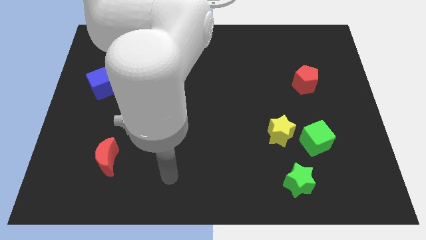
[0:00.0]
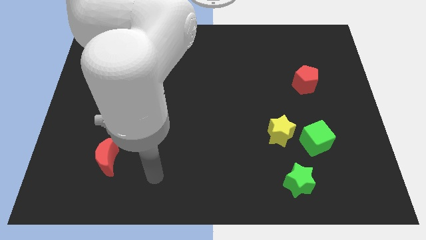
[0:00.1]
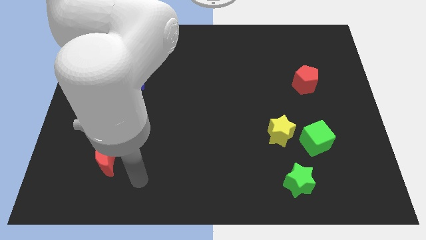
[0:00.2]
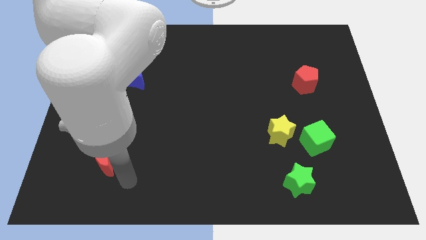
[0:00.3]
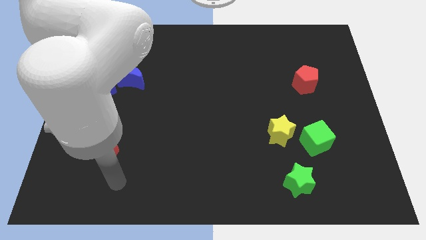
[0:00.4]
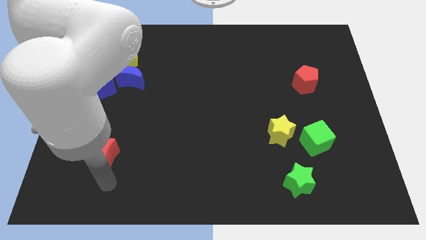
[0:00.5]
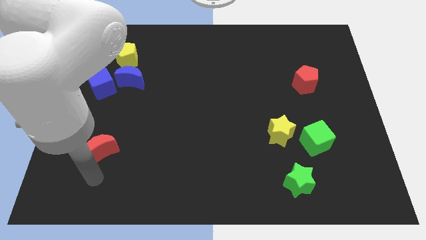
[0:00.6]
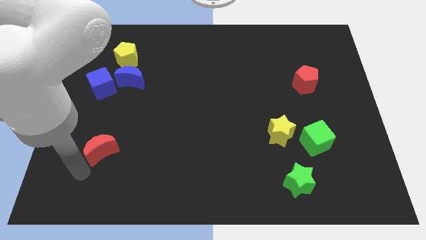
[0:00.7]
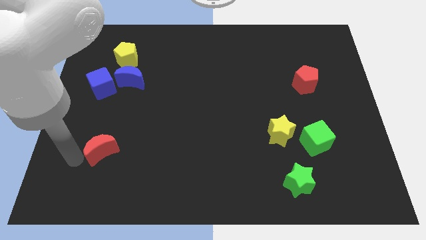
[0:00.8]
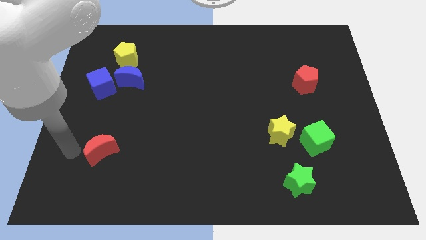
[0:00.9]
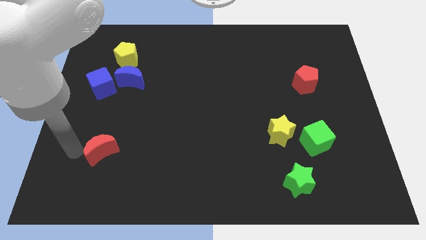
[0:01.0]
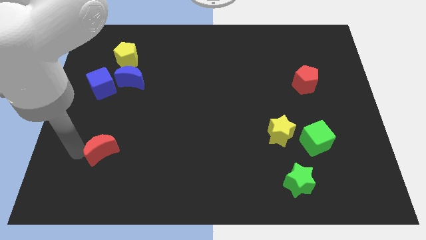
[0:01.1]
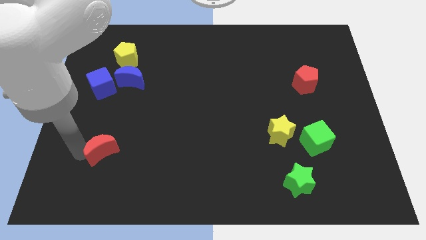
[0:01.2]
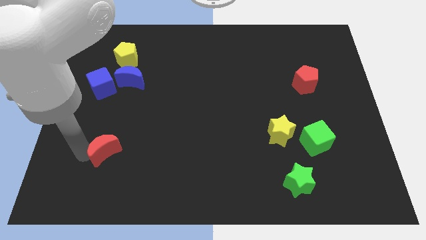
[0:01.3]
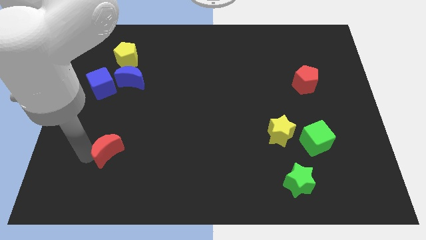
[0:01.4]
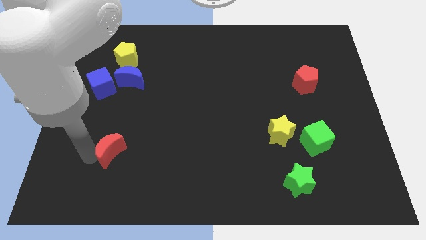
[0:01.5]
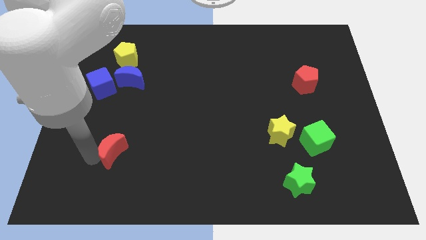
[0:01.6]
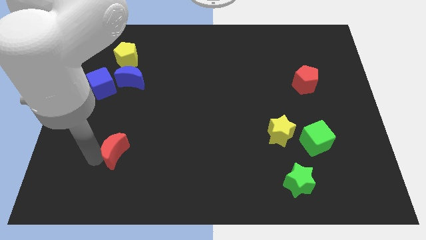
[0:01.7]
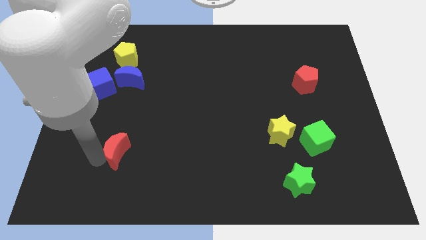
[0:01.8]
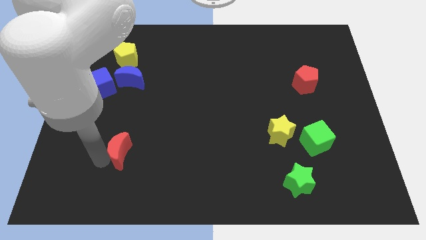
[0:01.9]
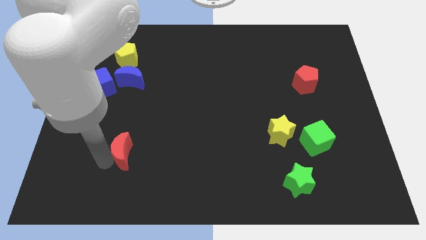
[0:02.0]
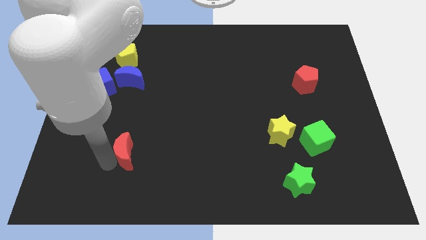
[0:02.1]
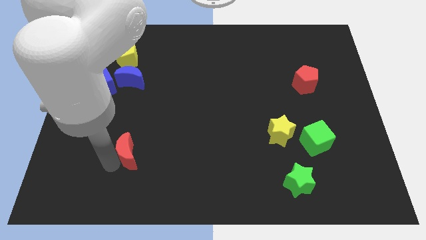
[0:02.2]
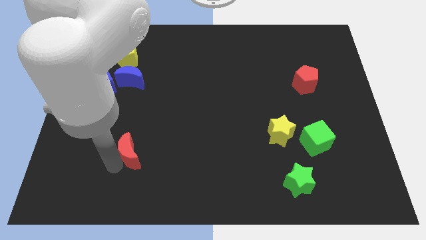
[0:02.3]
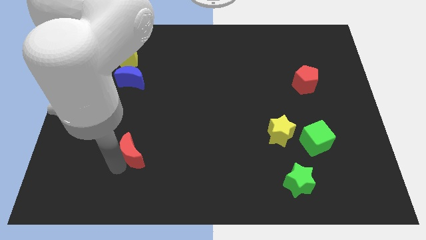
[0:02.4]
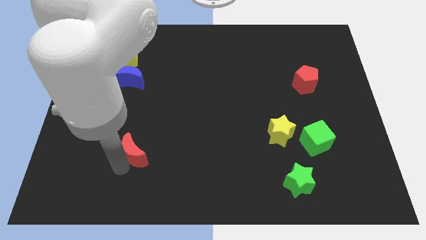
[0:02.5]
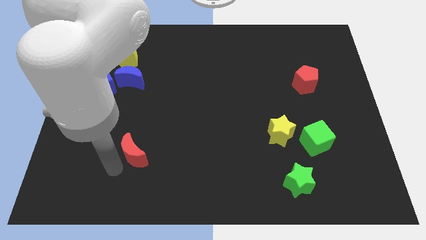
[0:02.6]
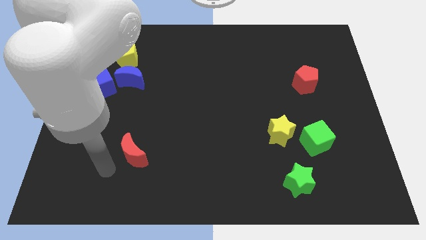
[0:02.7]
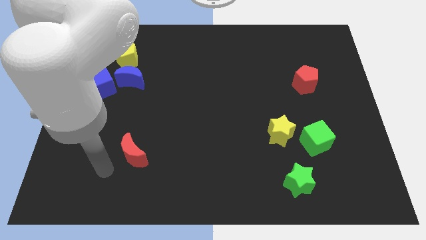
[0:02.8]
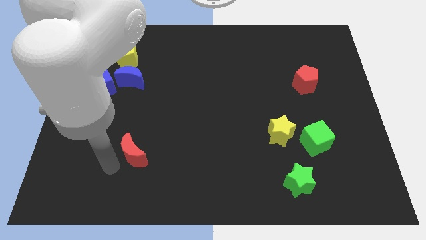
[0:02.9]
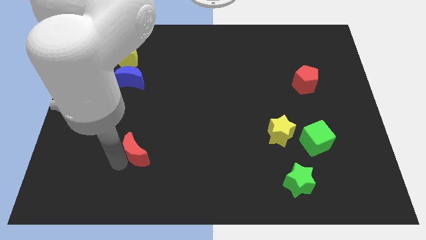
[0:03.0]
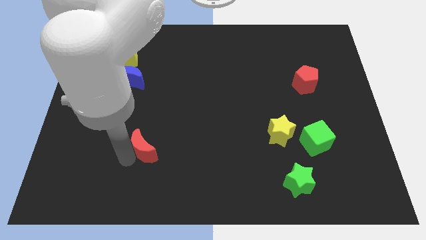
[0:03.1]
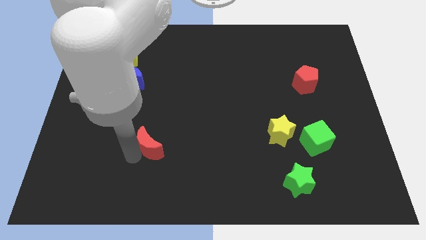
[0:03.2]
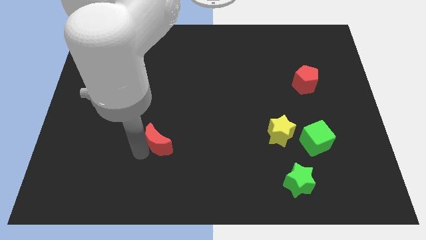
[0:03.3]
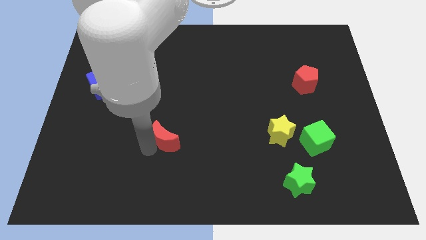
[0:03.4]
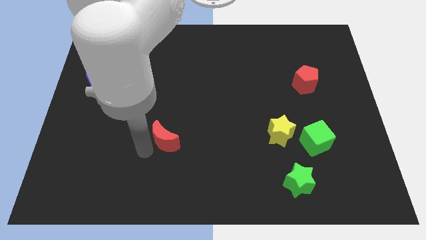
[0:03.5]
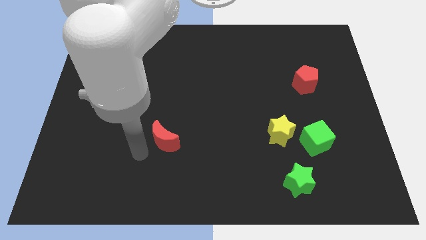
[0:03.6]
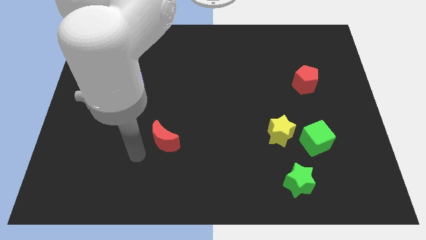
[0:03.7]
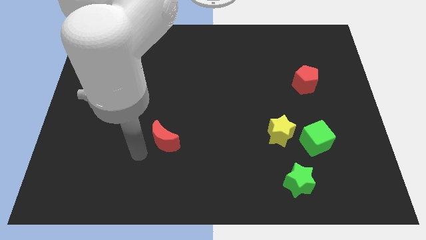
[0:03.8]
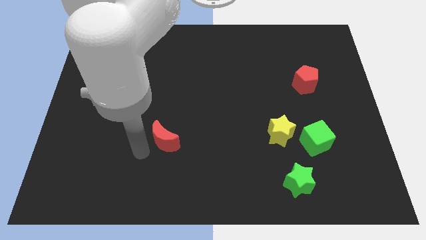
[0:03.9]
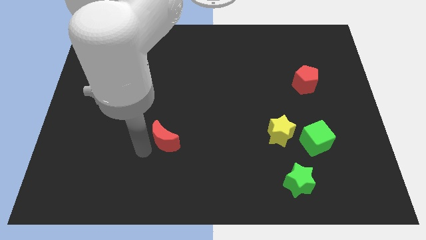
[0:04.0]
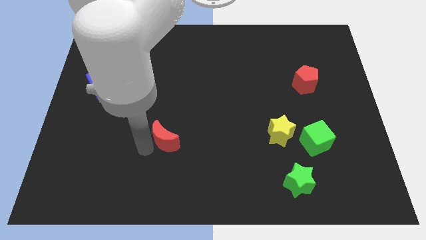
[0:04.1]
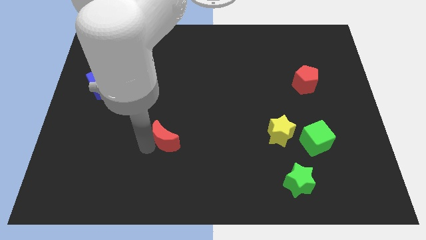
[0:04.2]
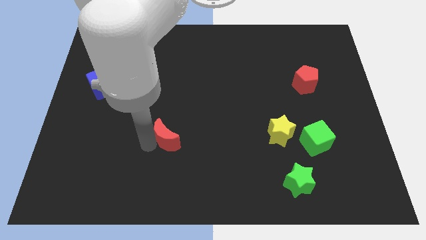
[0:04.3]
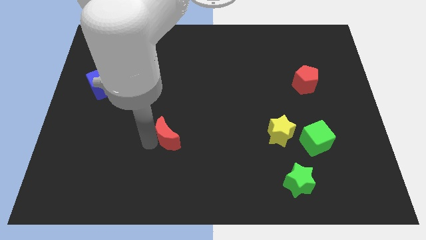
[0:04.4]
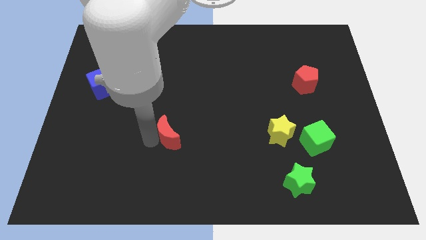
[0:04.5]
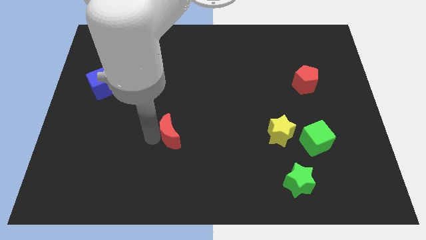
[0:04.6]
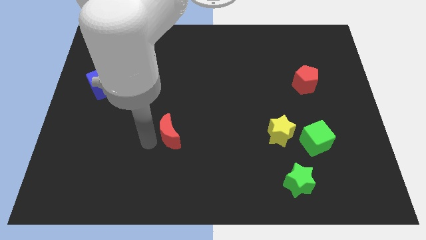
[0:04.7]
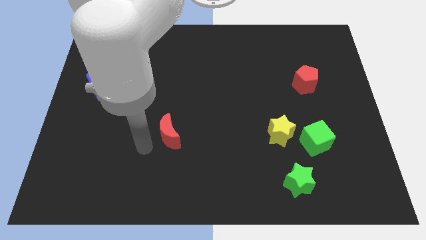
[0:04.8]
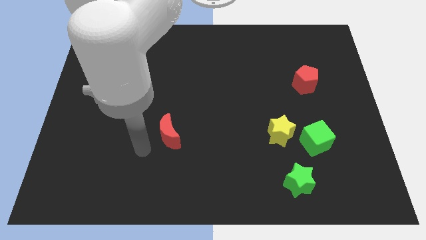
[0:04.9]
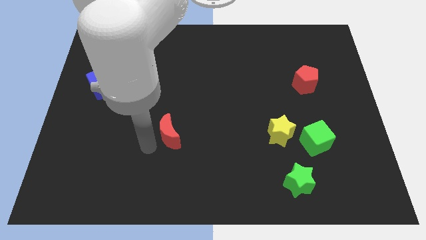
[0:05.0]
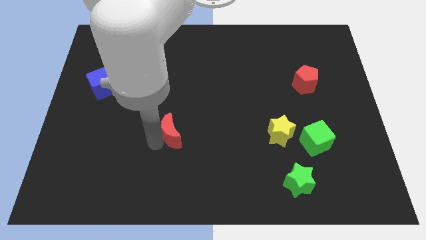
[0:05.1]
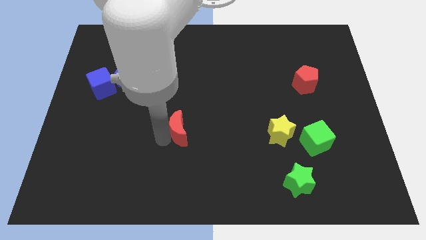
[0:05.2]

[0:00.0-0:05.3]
put the red moon to the center

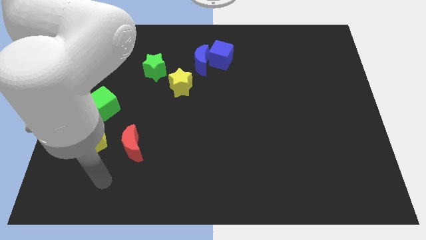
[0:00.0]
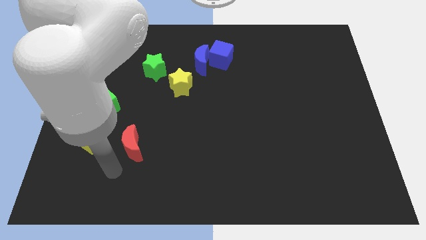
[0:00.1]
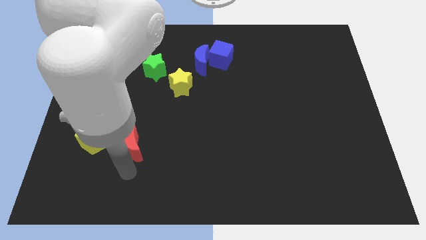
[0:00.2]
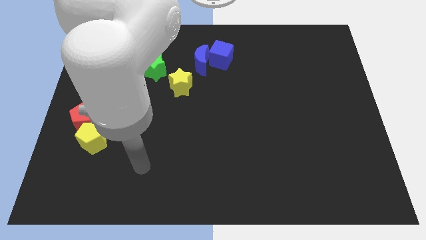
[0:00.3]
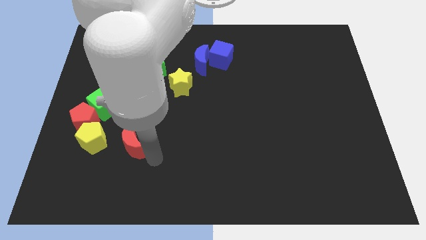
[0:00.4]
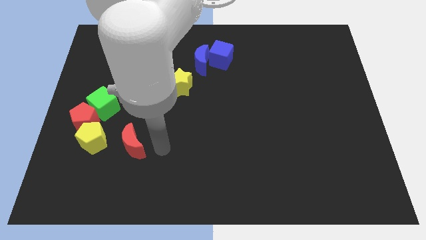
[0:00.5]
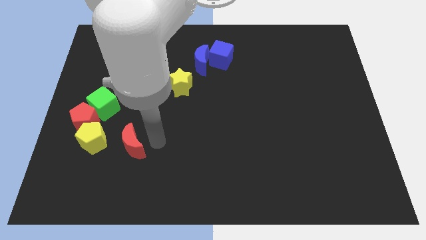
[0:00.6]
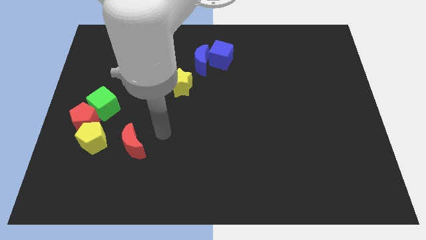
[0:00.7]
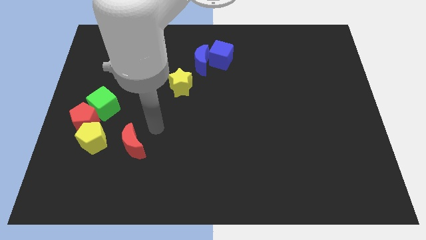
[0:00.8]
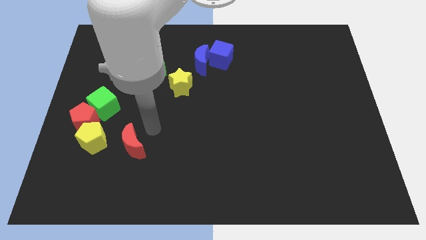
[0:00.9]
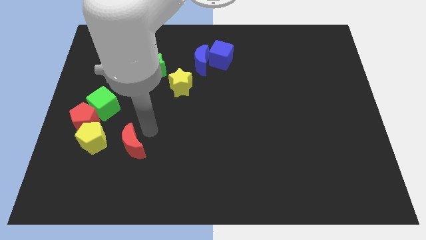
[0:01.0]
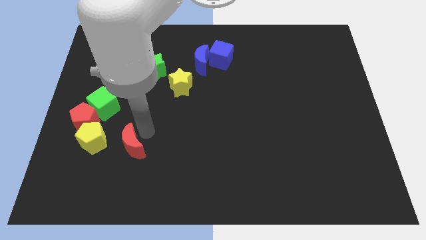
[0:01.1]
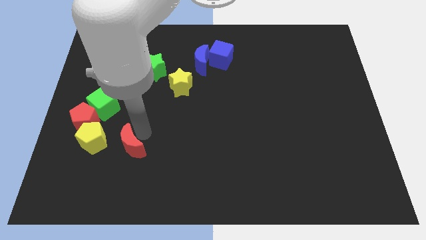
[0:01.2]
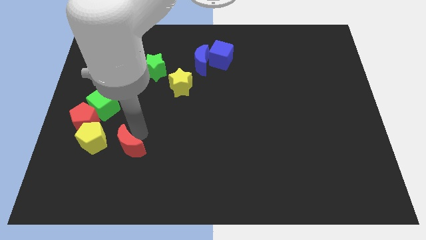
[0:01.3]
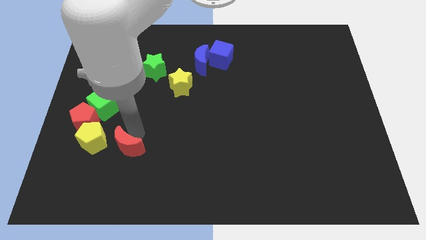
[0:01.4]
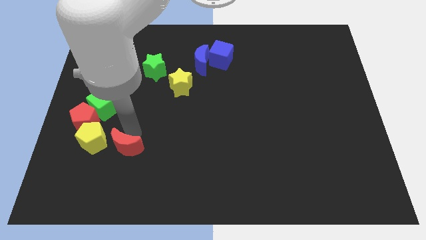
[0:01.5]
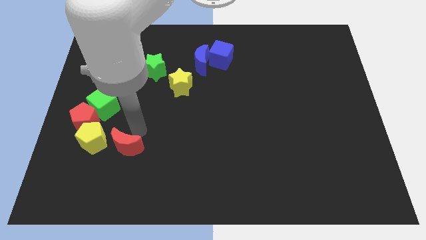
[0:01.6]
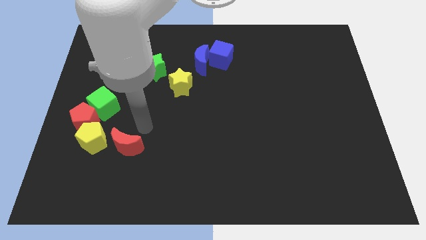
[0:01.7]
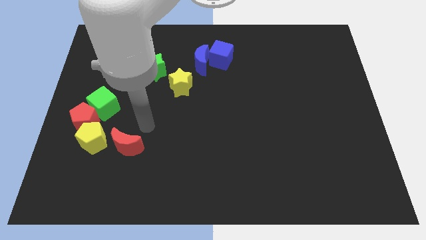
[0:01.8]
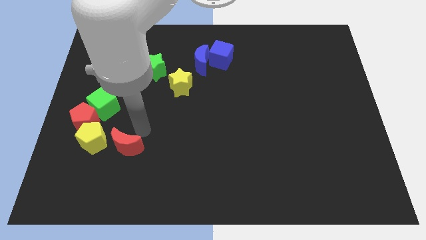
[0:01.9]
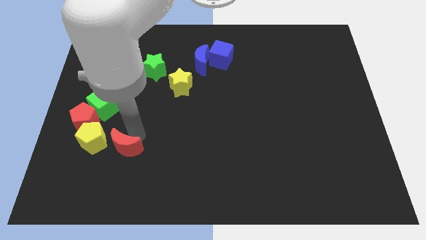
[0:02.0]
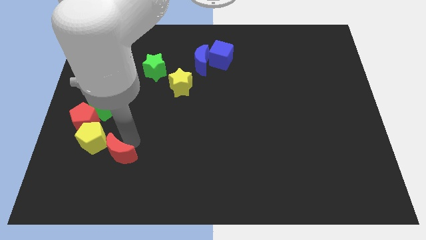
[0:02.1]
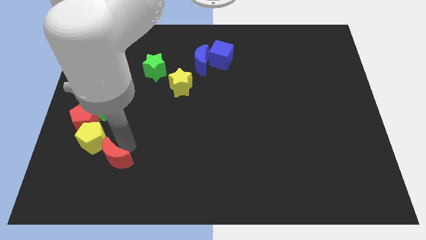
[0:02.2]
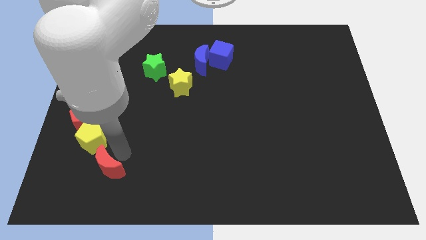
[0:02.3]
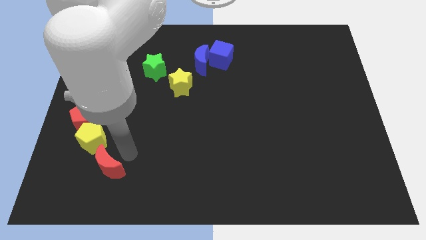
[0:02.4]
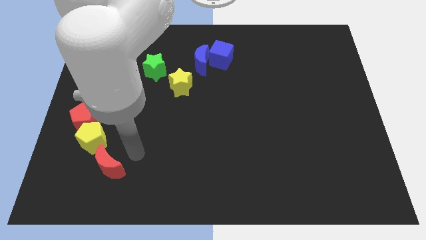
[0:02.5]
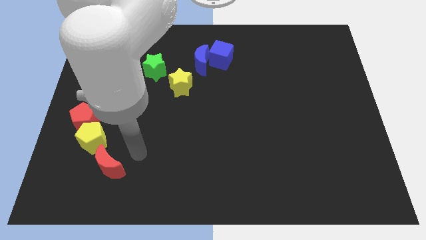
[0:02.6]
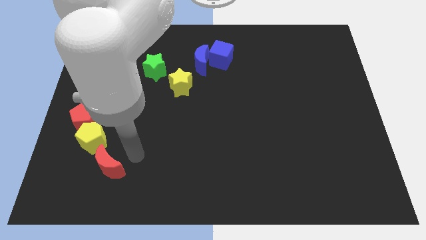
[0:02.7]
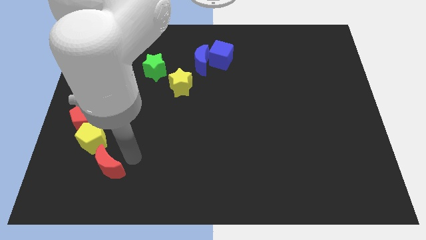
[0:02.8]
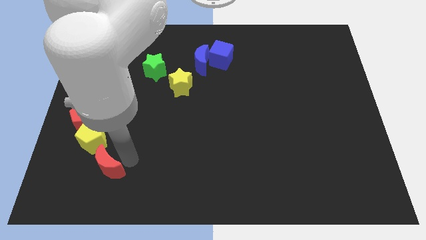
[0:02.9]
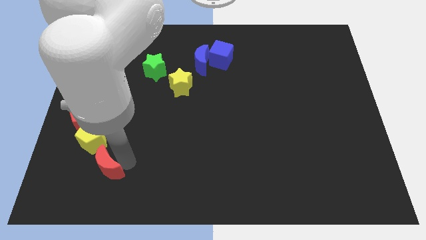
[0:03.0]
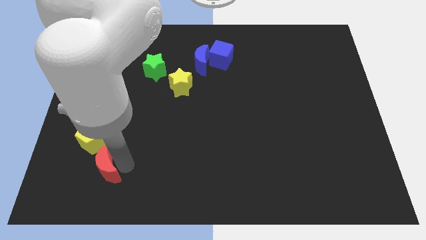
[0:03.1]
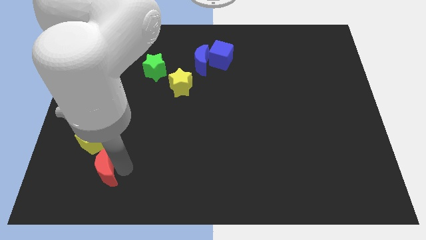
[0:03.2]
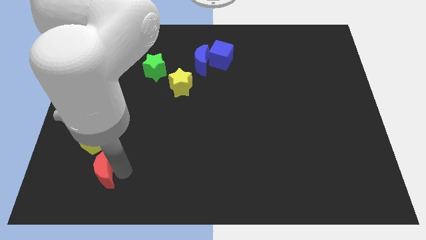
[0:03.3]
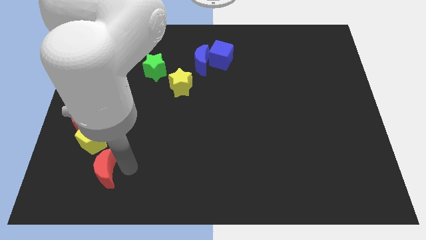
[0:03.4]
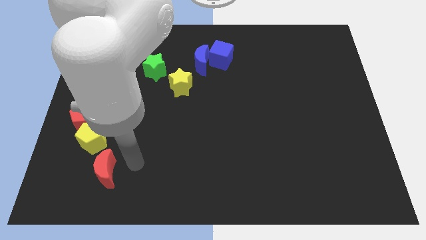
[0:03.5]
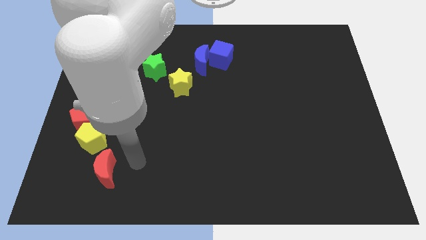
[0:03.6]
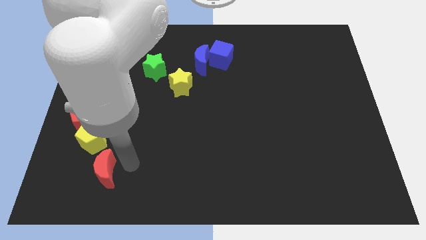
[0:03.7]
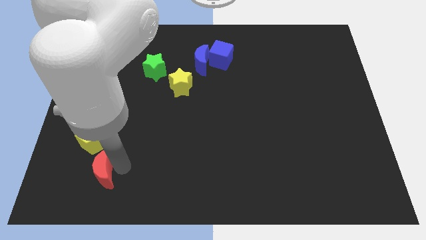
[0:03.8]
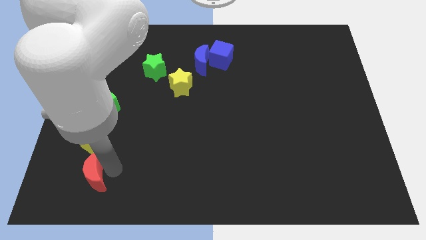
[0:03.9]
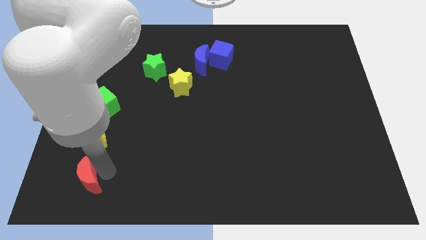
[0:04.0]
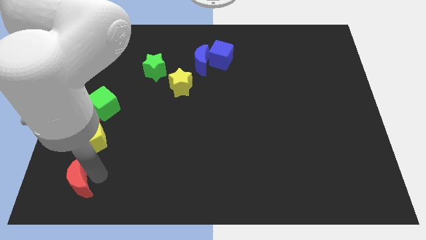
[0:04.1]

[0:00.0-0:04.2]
slide the red moon to the bottom left
